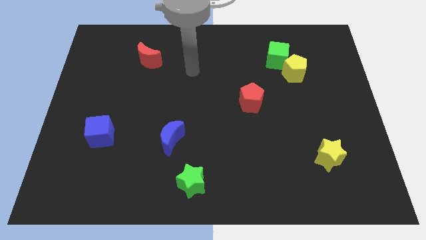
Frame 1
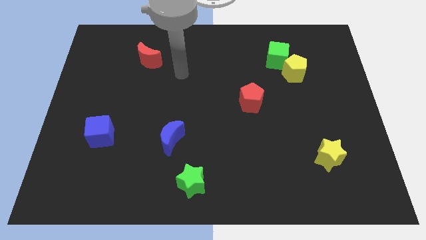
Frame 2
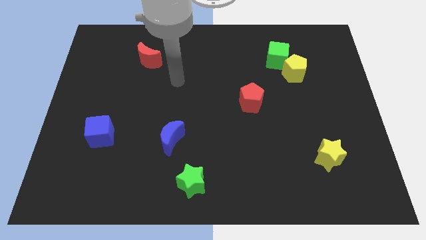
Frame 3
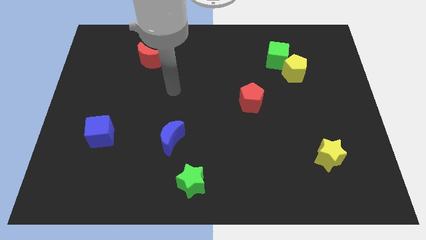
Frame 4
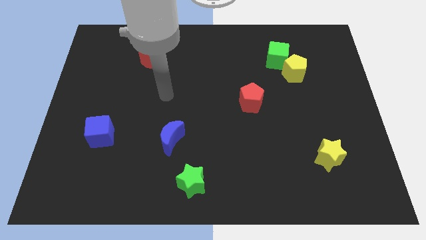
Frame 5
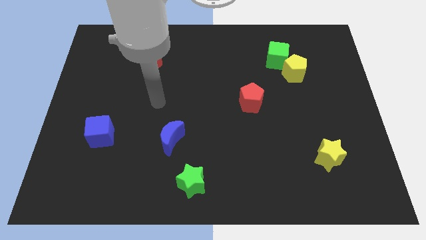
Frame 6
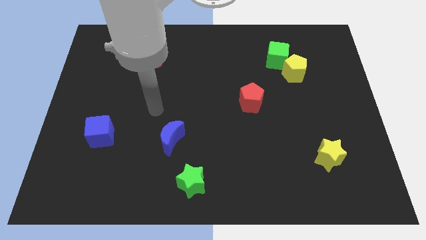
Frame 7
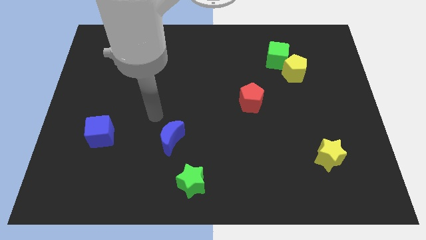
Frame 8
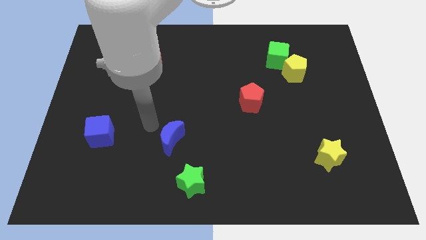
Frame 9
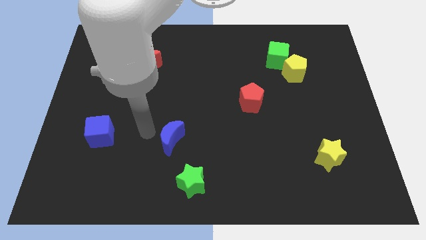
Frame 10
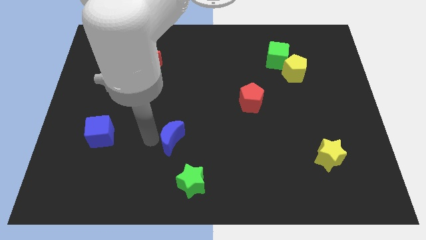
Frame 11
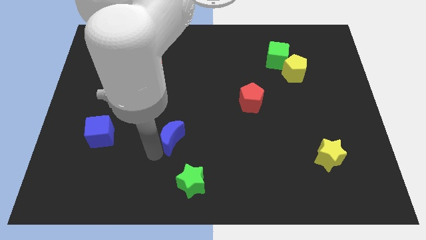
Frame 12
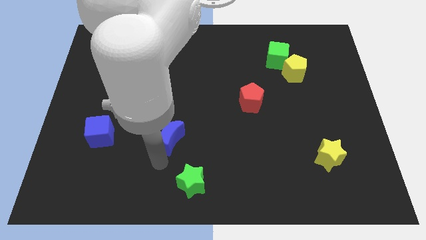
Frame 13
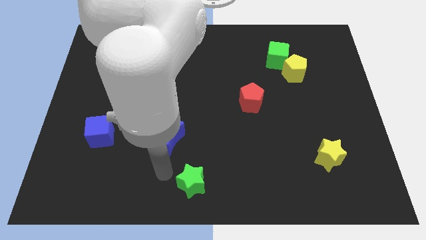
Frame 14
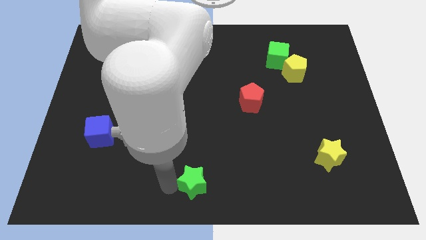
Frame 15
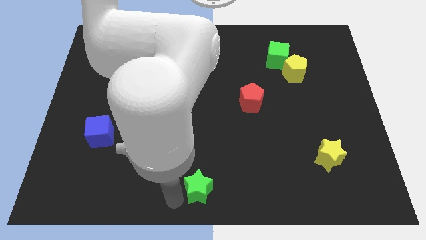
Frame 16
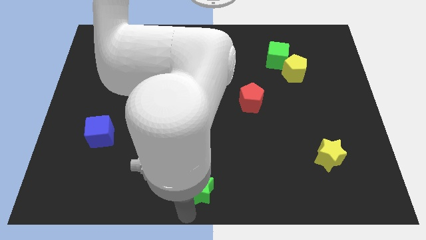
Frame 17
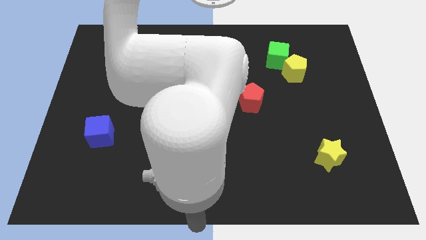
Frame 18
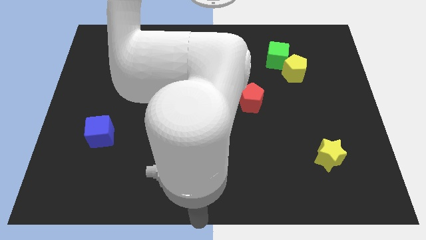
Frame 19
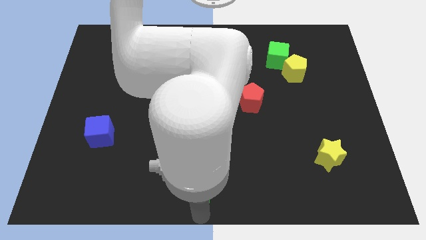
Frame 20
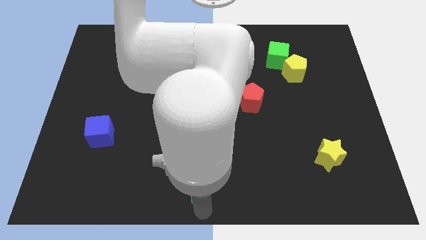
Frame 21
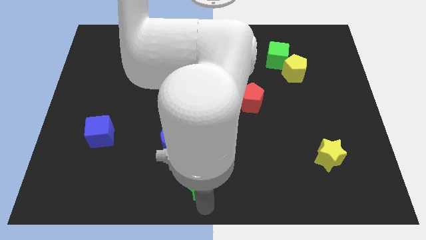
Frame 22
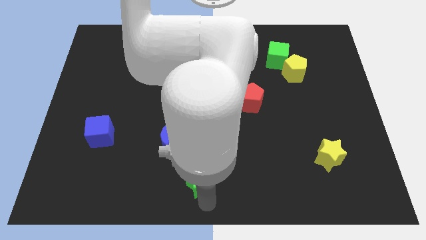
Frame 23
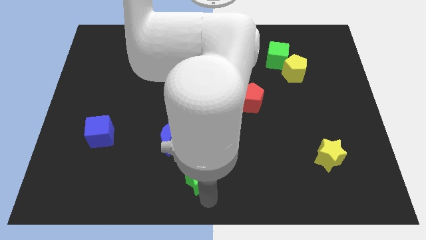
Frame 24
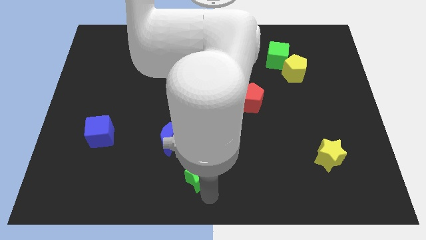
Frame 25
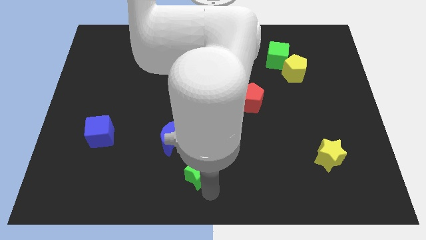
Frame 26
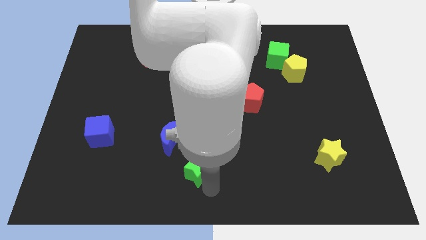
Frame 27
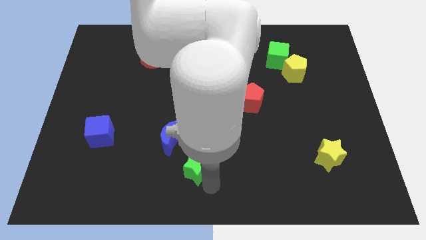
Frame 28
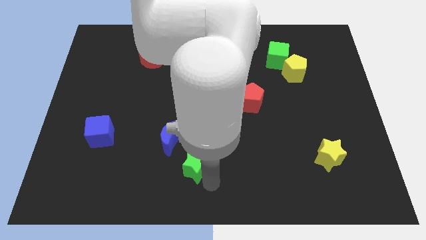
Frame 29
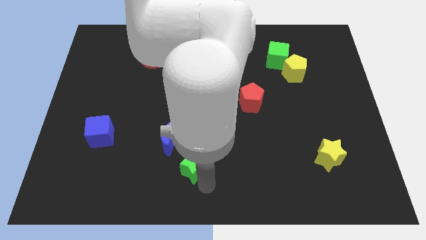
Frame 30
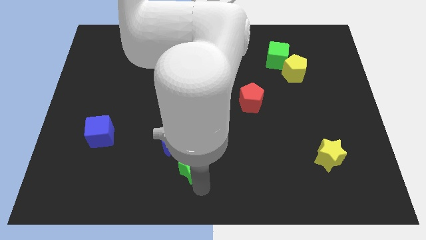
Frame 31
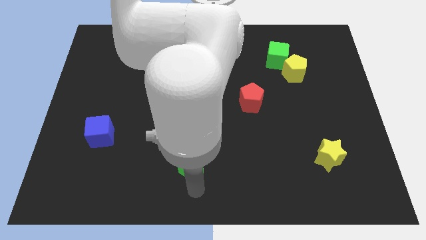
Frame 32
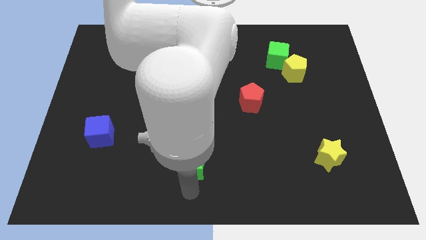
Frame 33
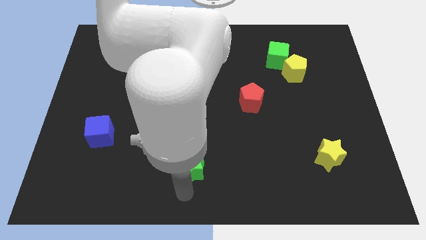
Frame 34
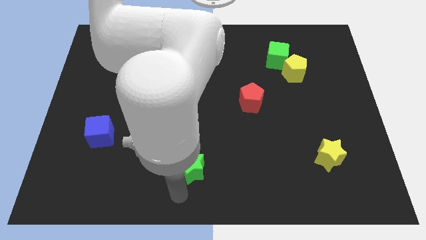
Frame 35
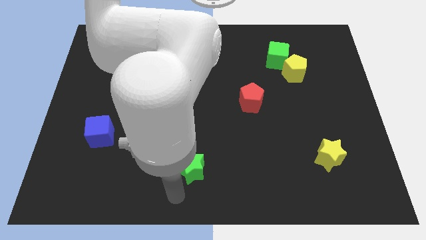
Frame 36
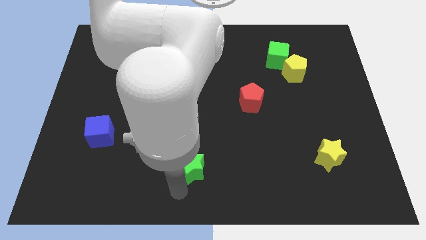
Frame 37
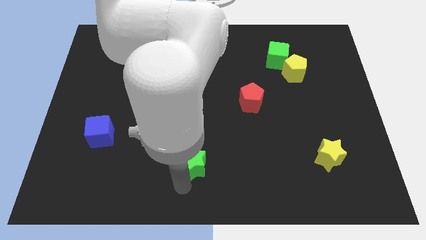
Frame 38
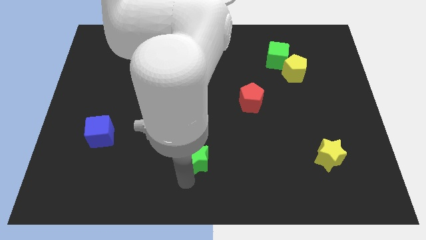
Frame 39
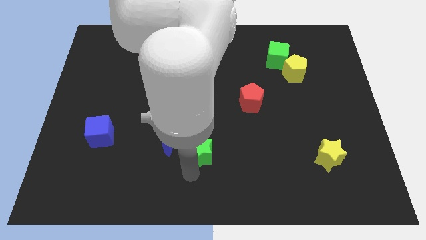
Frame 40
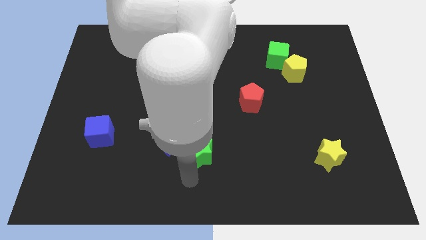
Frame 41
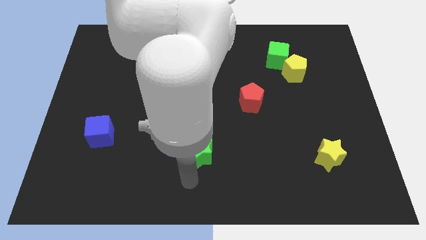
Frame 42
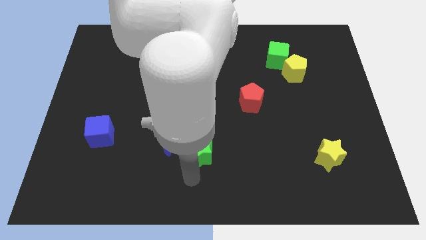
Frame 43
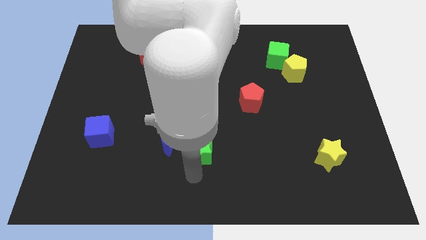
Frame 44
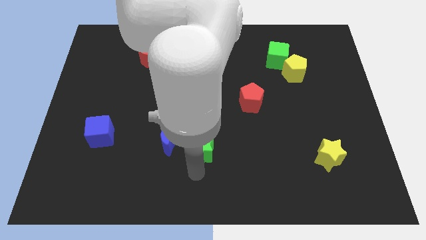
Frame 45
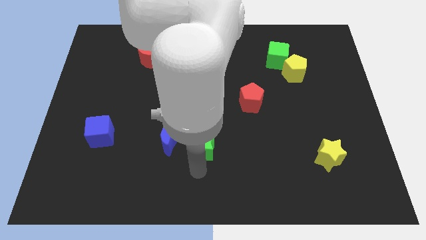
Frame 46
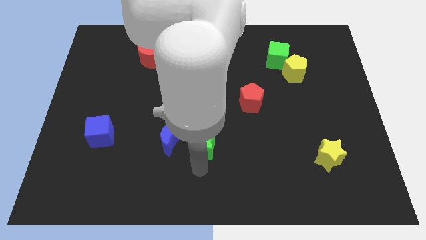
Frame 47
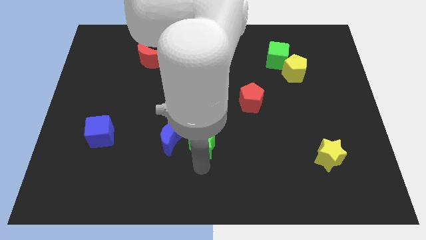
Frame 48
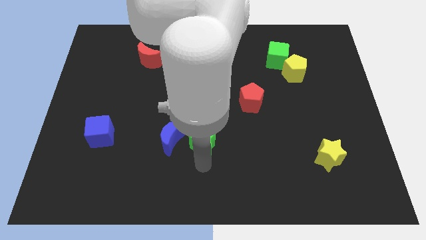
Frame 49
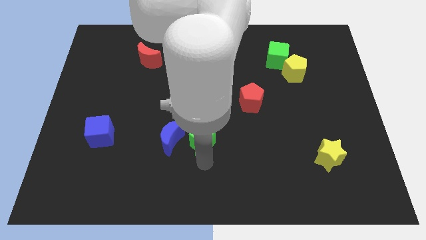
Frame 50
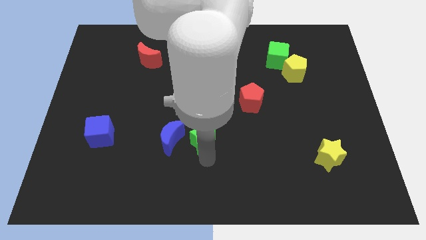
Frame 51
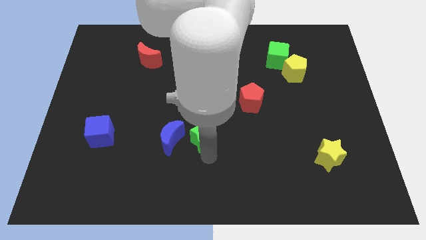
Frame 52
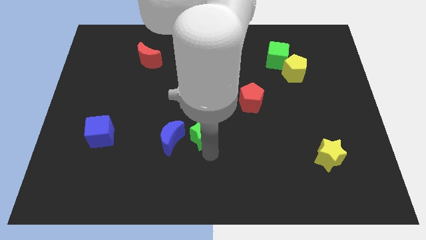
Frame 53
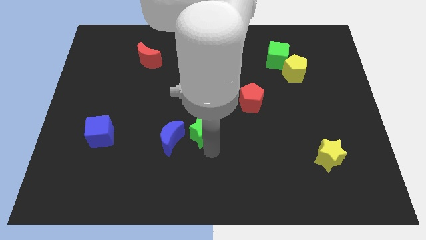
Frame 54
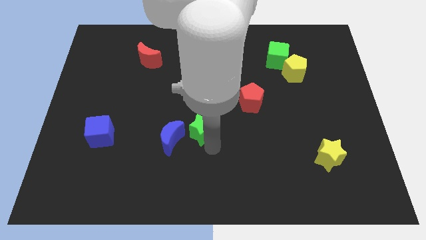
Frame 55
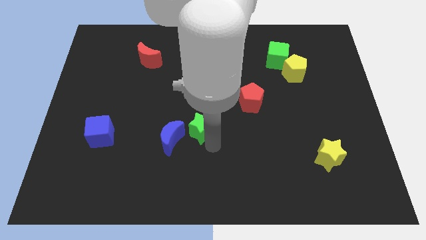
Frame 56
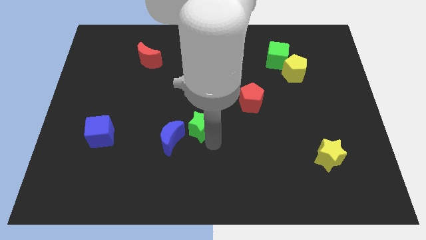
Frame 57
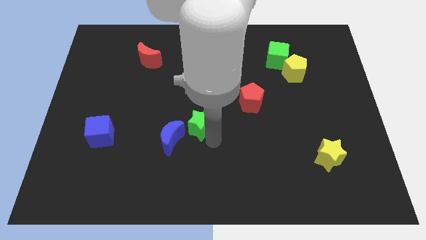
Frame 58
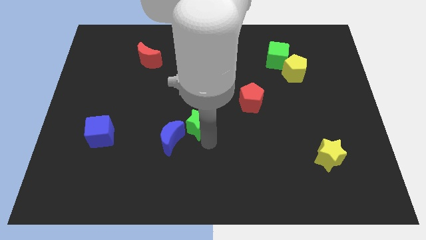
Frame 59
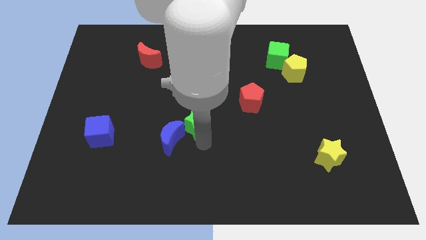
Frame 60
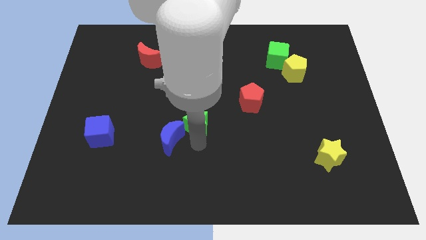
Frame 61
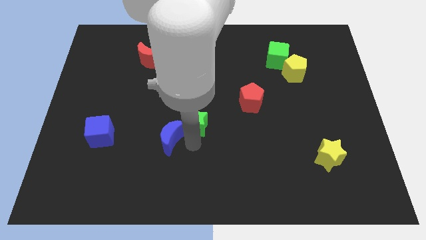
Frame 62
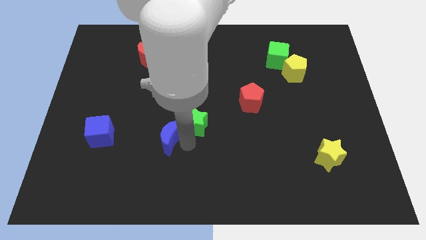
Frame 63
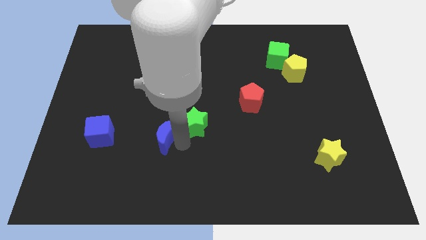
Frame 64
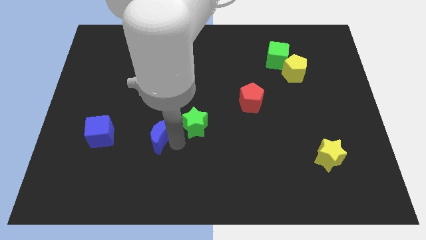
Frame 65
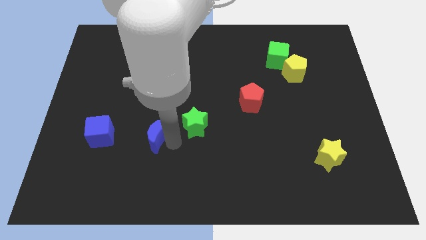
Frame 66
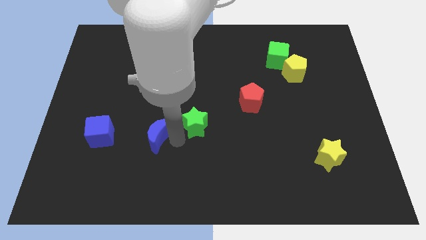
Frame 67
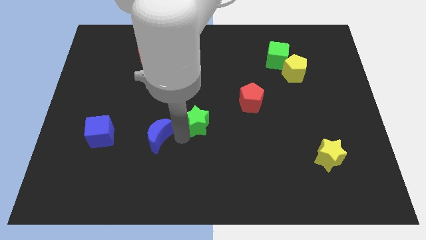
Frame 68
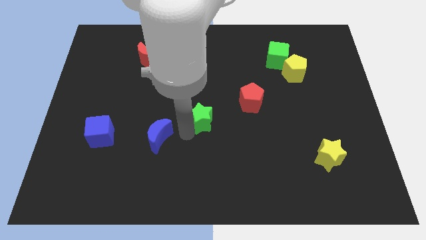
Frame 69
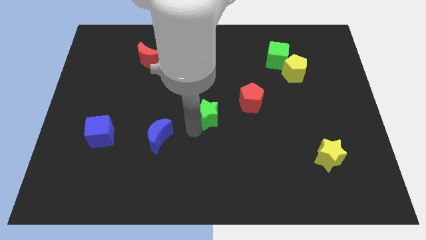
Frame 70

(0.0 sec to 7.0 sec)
push the green star to the left side of the red pentagon
